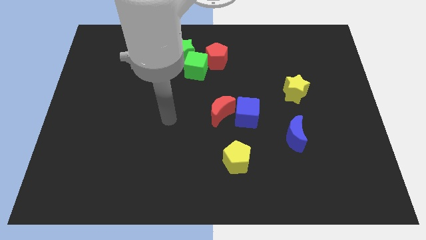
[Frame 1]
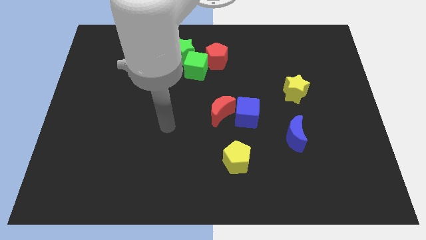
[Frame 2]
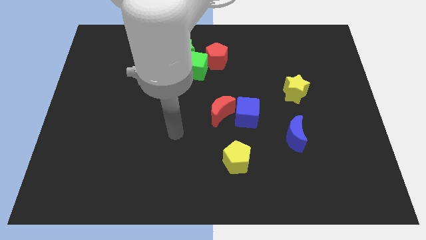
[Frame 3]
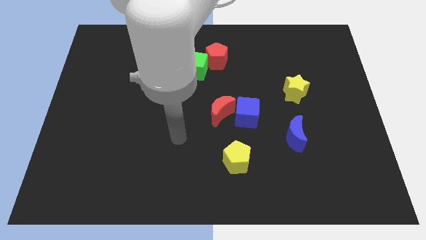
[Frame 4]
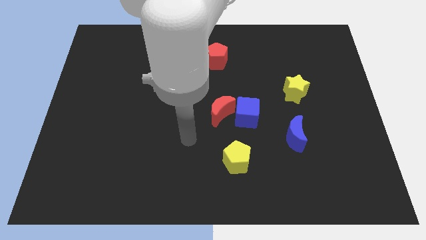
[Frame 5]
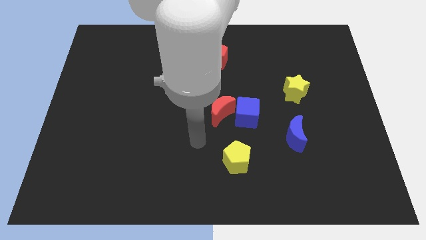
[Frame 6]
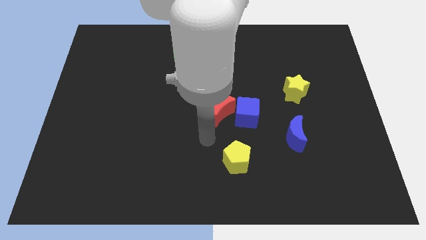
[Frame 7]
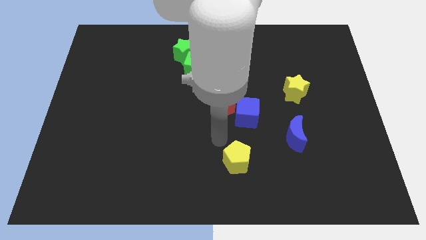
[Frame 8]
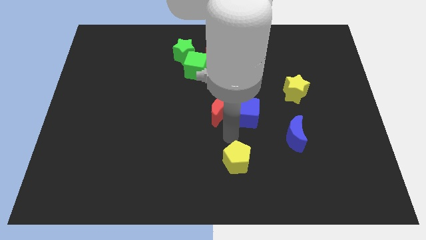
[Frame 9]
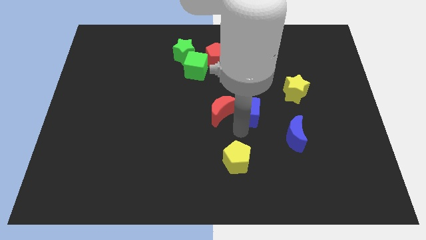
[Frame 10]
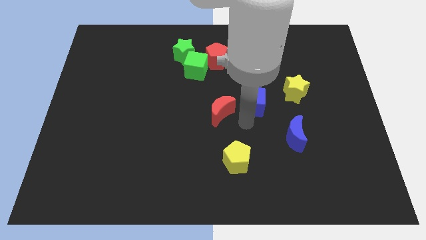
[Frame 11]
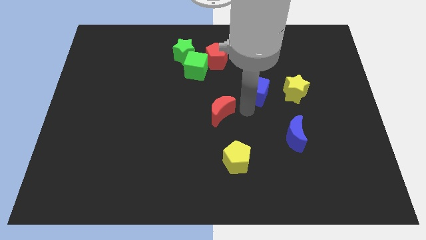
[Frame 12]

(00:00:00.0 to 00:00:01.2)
separate the red moon from the blue cube

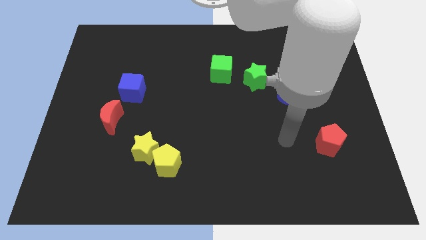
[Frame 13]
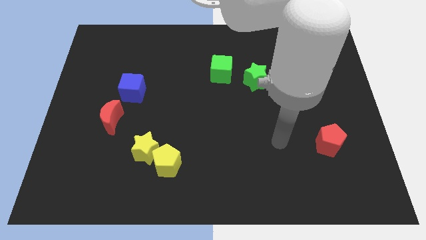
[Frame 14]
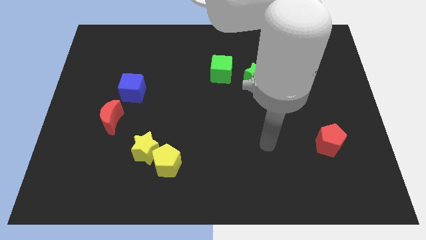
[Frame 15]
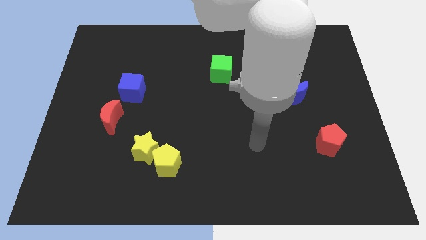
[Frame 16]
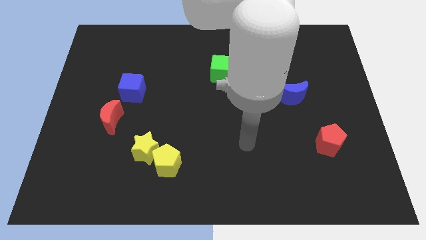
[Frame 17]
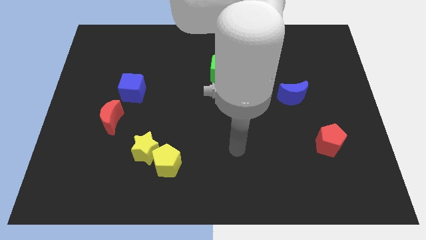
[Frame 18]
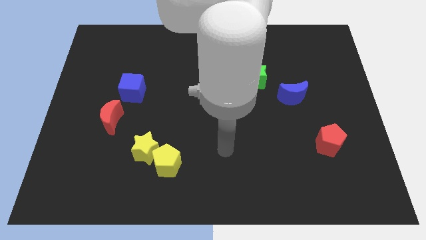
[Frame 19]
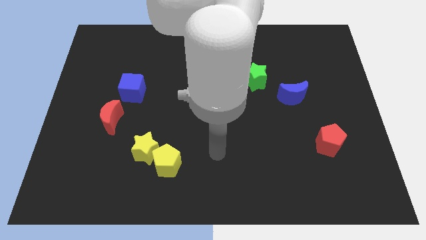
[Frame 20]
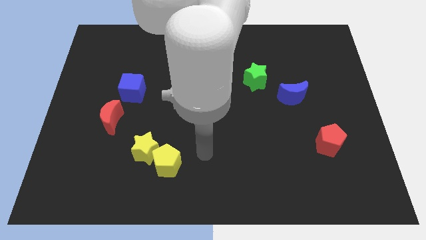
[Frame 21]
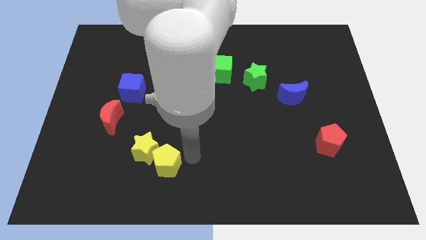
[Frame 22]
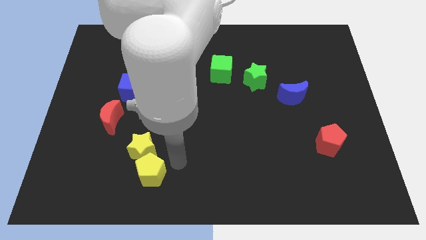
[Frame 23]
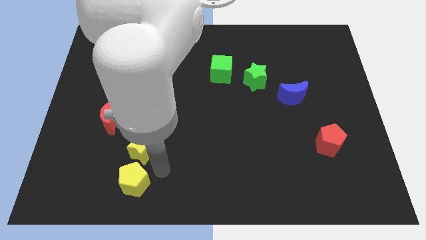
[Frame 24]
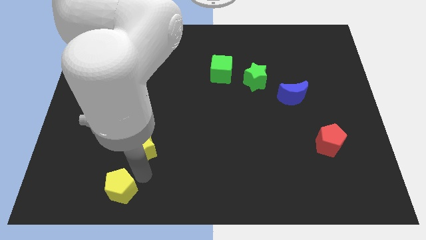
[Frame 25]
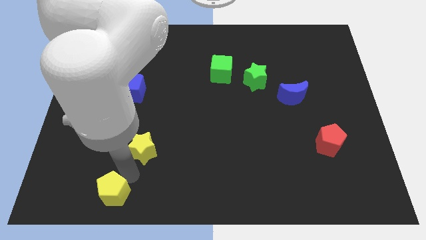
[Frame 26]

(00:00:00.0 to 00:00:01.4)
move the yellow star away from the yellow pentagon

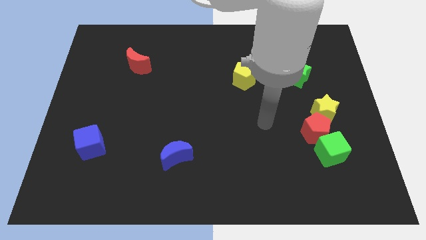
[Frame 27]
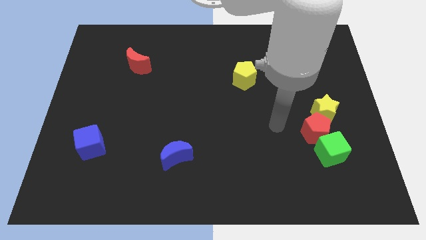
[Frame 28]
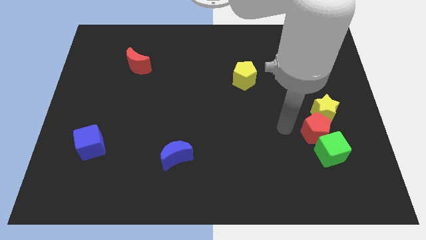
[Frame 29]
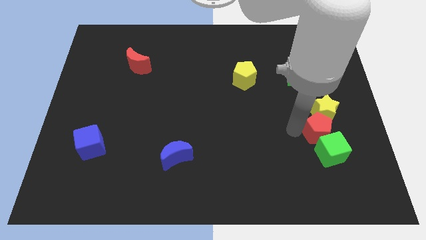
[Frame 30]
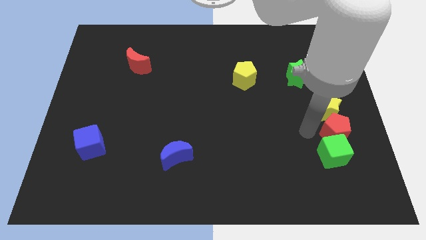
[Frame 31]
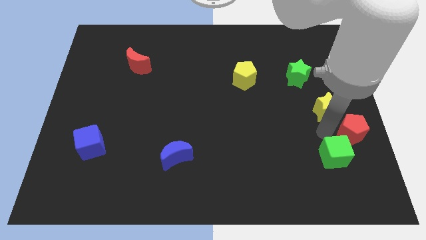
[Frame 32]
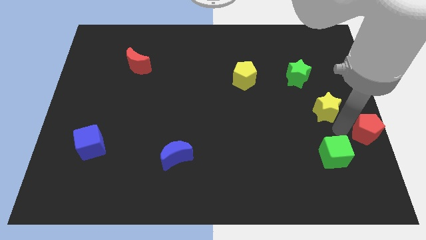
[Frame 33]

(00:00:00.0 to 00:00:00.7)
separate the yellow star from the red pentagon

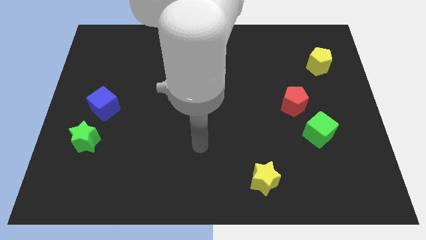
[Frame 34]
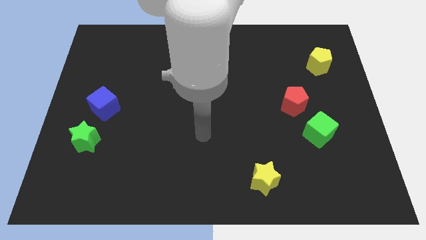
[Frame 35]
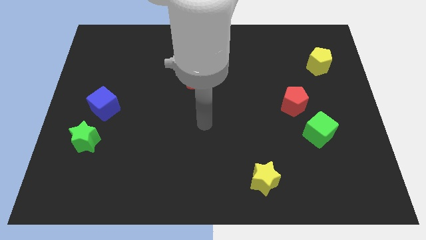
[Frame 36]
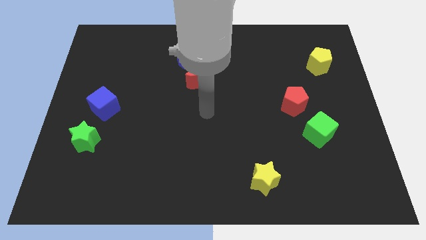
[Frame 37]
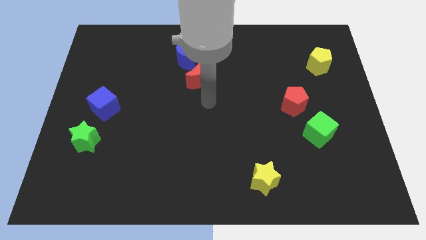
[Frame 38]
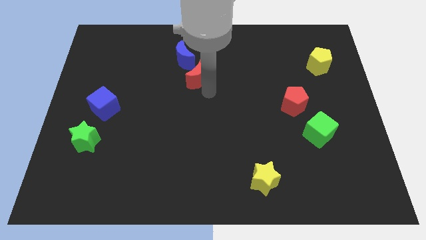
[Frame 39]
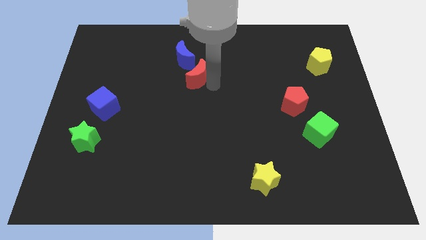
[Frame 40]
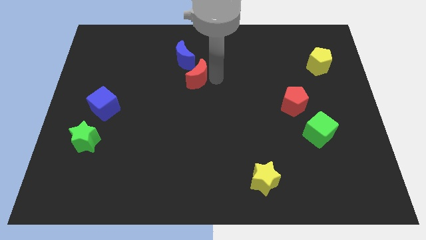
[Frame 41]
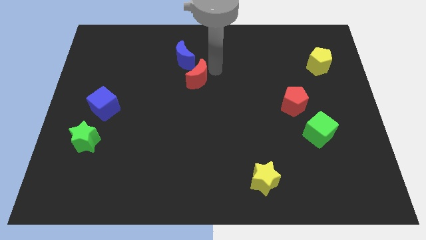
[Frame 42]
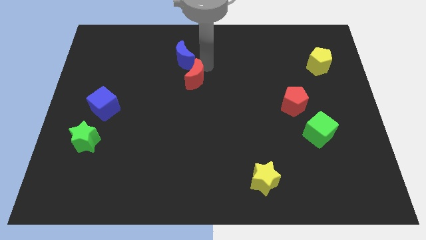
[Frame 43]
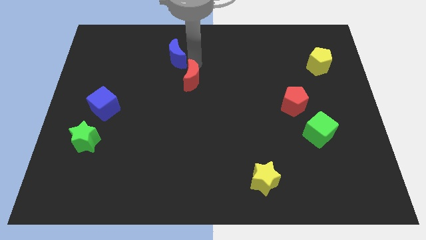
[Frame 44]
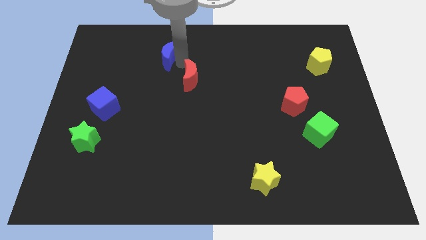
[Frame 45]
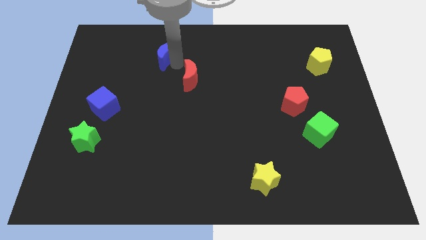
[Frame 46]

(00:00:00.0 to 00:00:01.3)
move the red moon away from the blue moon

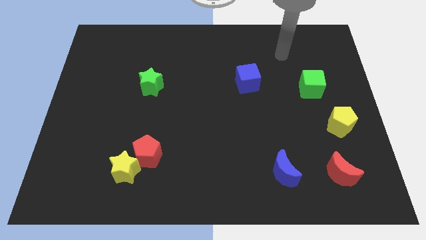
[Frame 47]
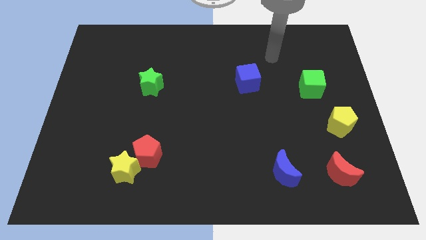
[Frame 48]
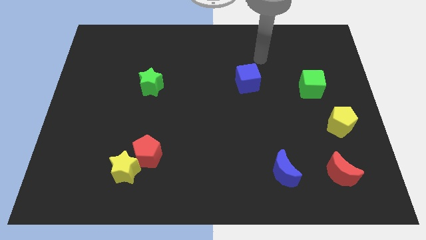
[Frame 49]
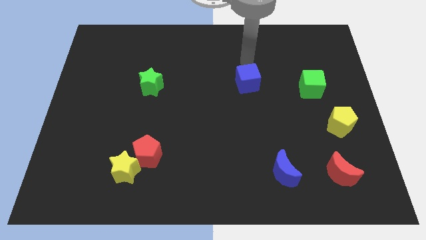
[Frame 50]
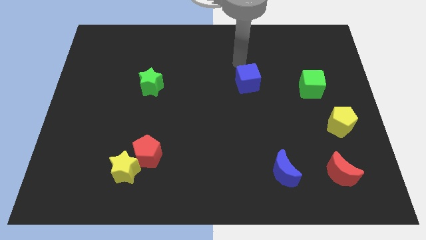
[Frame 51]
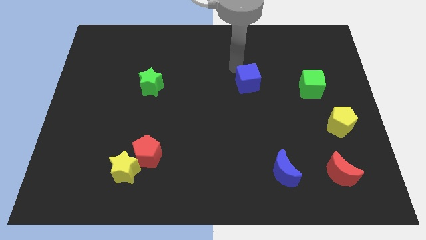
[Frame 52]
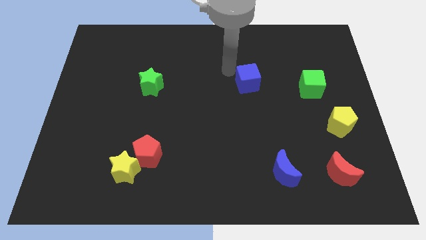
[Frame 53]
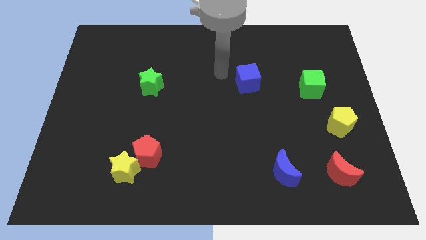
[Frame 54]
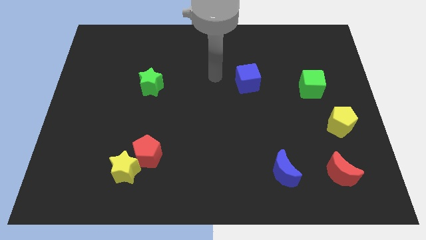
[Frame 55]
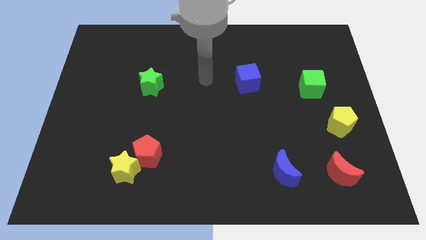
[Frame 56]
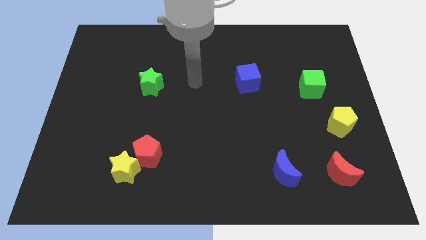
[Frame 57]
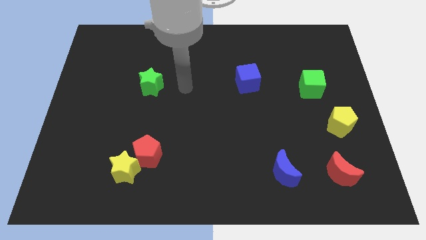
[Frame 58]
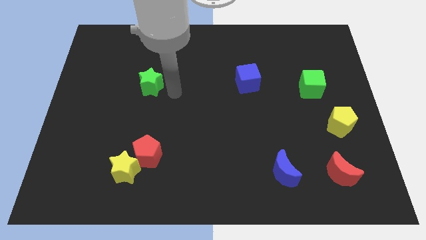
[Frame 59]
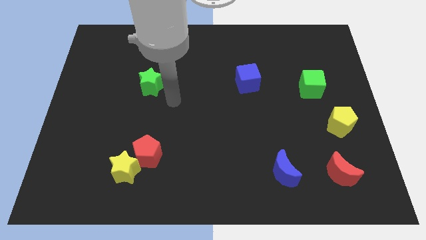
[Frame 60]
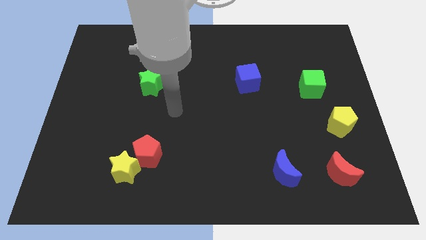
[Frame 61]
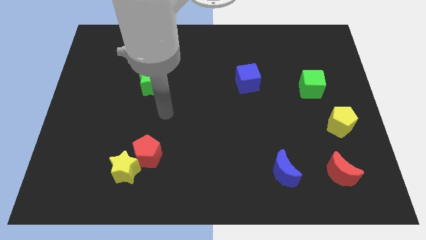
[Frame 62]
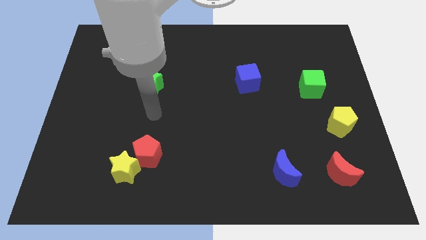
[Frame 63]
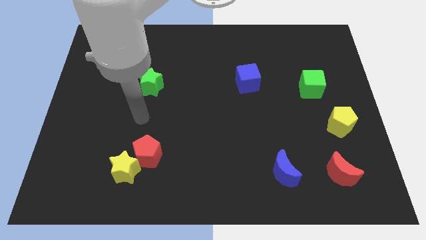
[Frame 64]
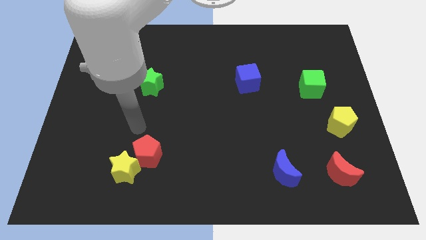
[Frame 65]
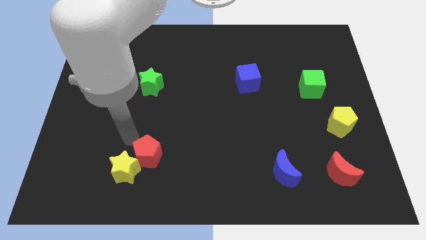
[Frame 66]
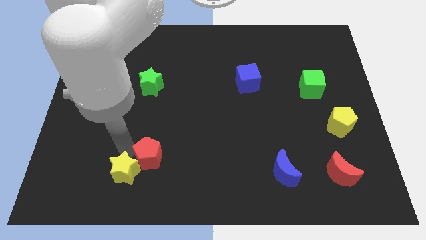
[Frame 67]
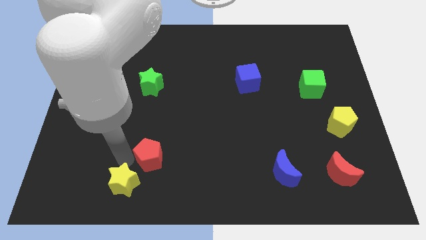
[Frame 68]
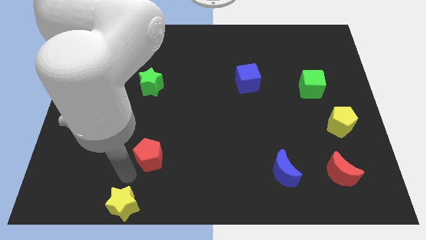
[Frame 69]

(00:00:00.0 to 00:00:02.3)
pull the red pentagon apart from the yellow star

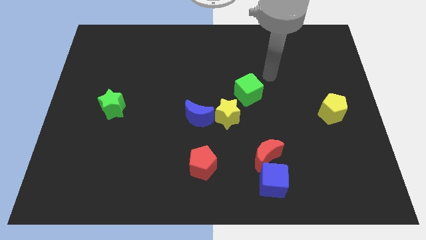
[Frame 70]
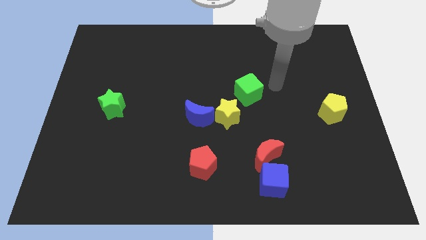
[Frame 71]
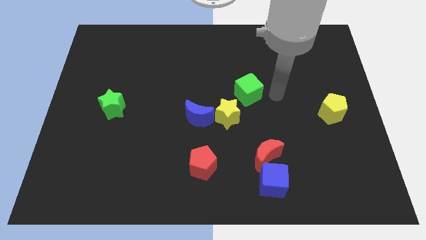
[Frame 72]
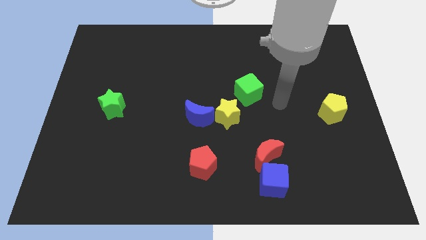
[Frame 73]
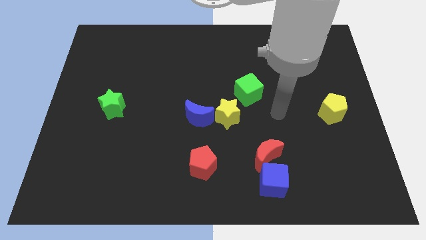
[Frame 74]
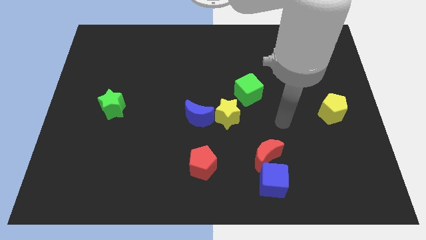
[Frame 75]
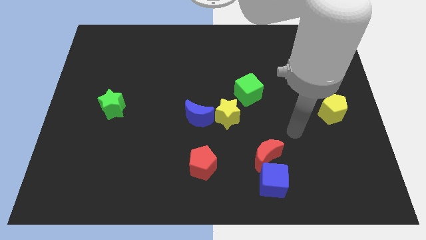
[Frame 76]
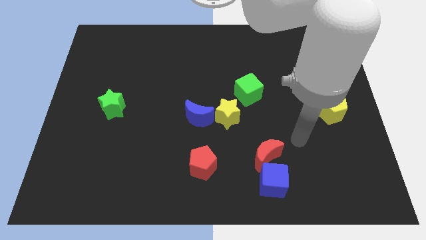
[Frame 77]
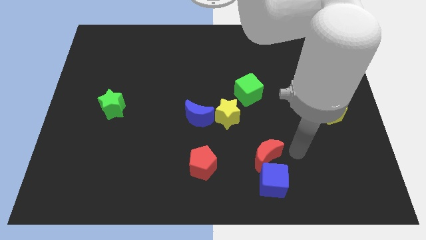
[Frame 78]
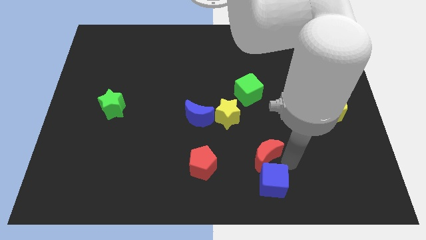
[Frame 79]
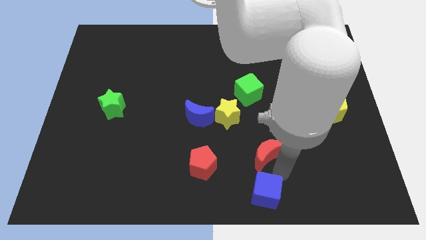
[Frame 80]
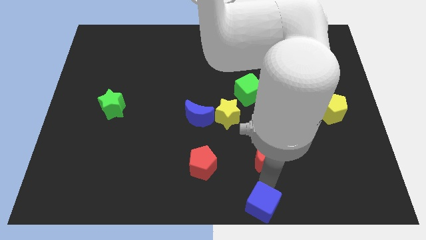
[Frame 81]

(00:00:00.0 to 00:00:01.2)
pull the red moon apart from the blue cube

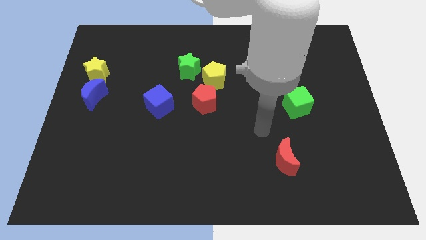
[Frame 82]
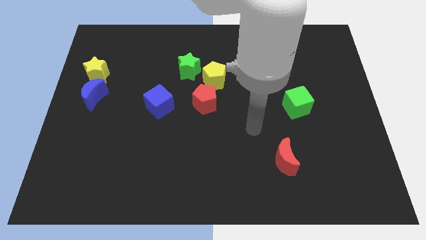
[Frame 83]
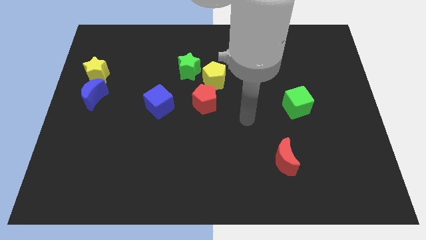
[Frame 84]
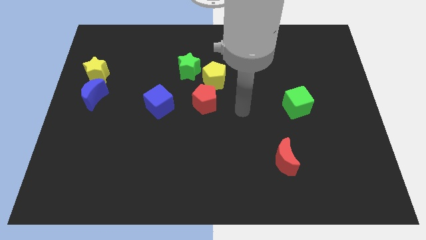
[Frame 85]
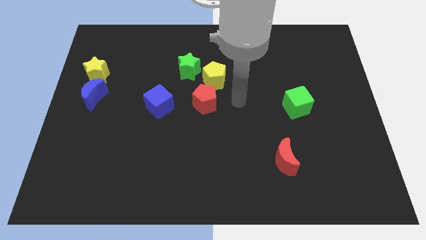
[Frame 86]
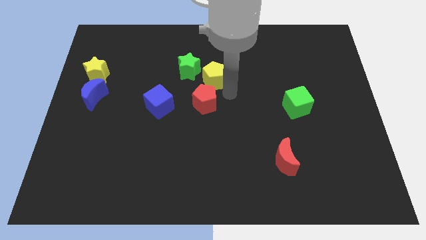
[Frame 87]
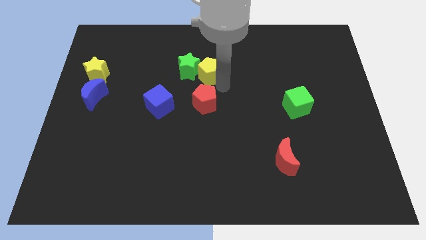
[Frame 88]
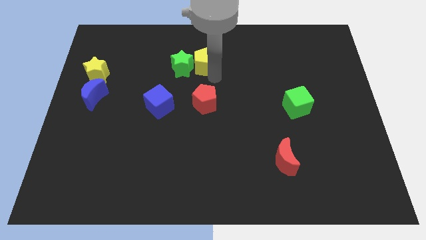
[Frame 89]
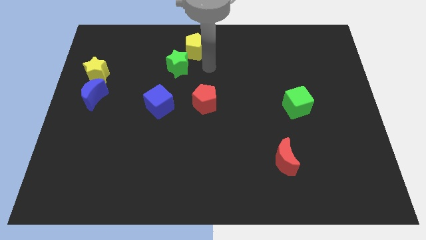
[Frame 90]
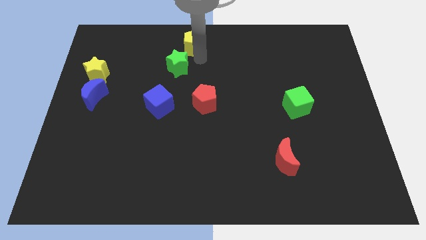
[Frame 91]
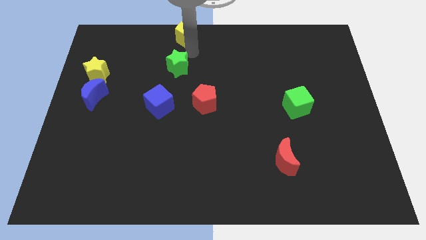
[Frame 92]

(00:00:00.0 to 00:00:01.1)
pull the green star apart from the yellow pentagon

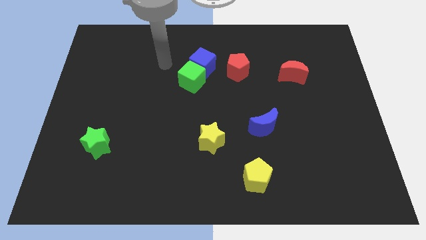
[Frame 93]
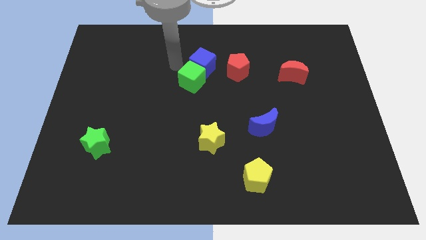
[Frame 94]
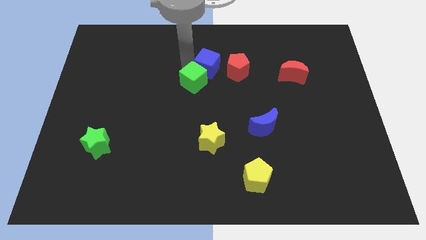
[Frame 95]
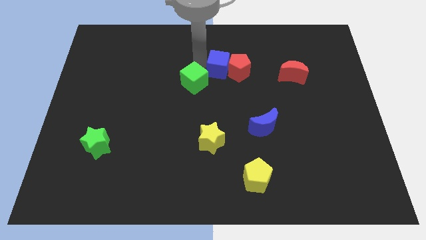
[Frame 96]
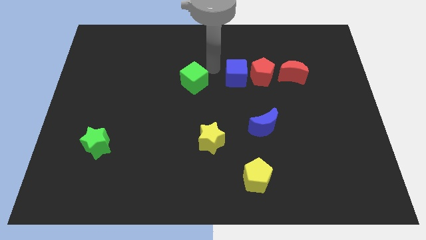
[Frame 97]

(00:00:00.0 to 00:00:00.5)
pull the green cube apart from the blue cube
